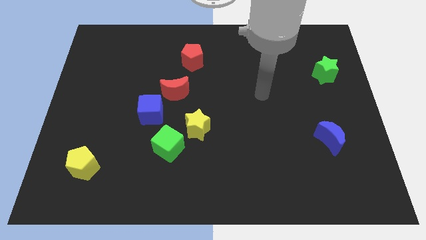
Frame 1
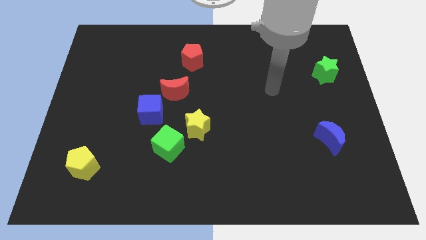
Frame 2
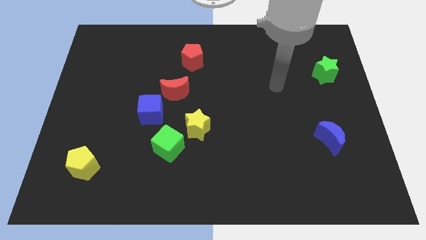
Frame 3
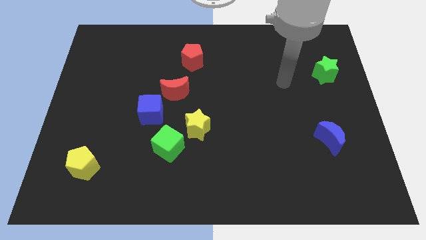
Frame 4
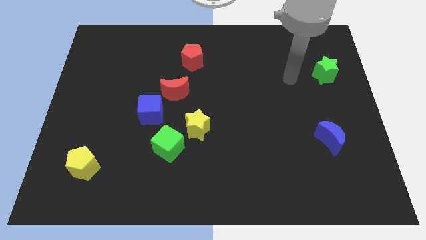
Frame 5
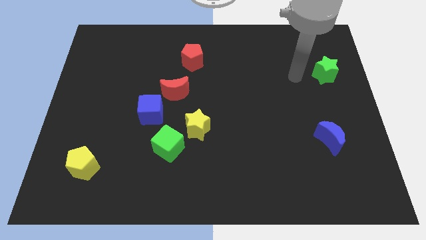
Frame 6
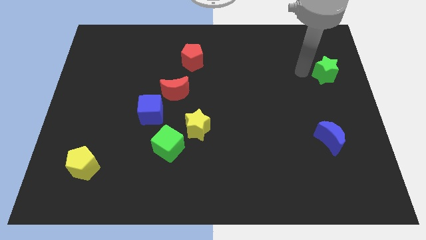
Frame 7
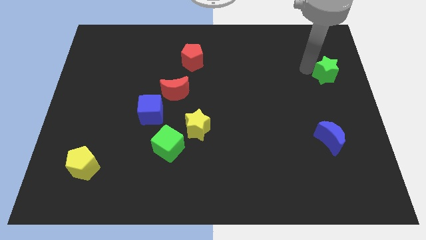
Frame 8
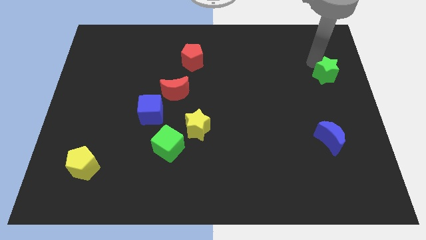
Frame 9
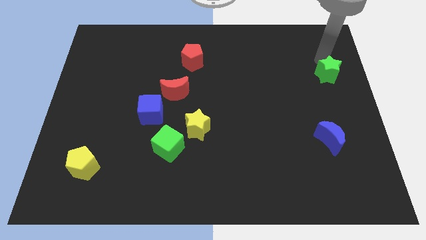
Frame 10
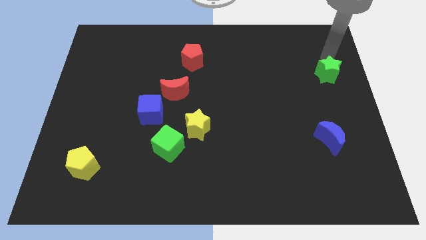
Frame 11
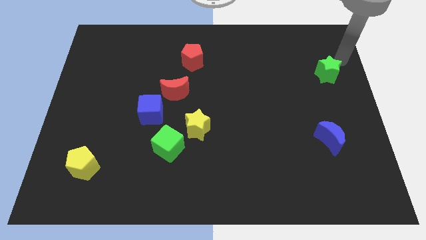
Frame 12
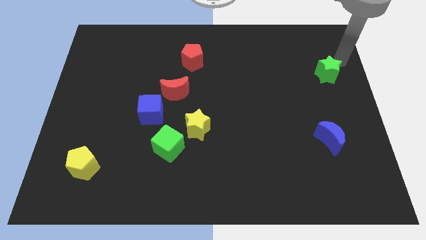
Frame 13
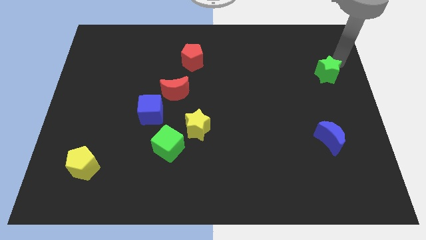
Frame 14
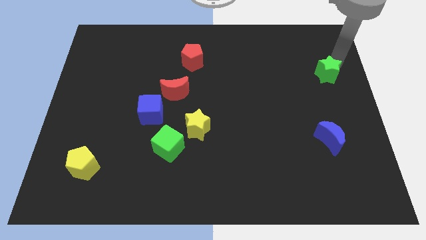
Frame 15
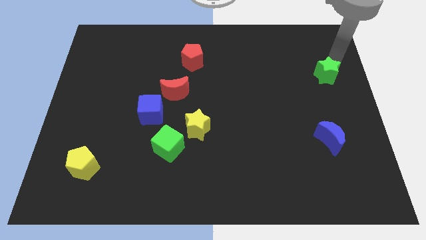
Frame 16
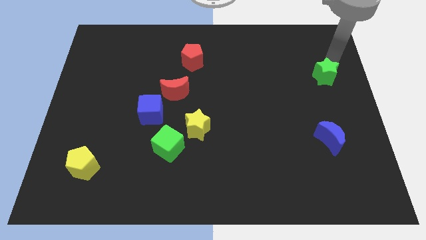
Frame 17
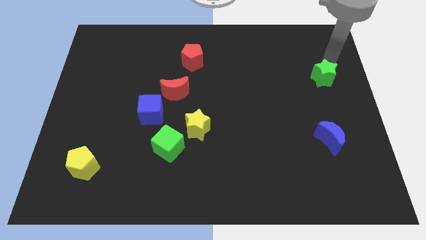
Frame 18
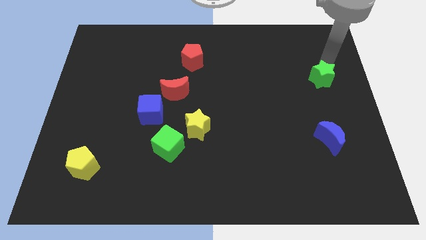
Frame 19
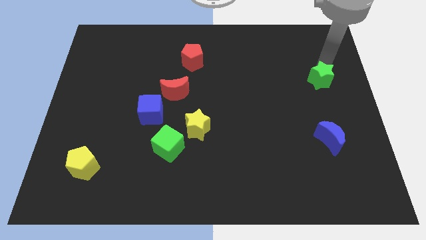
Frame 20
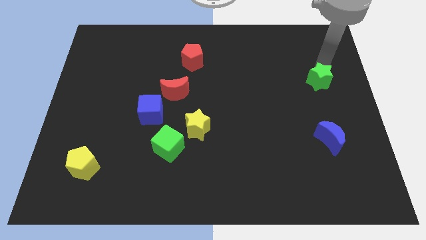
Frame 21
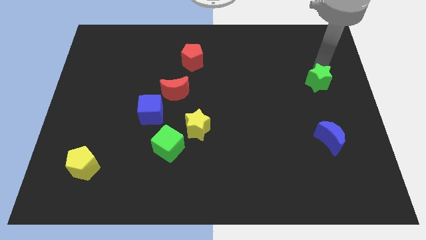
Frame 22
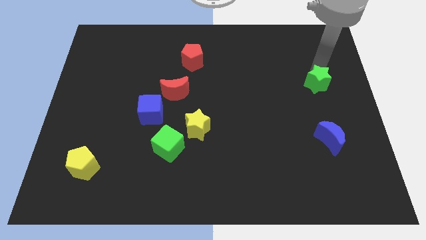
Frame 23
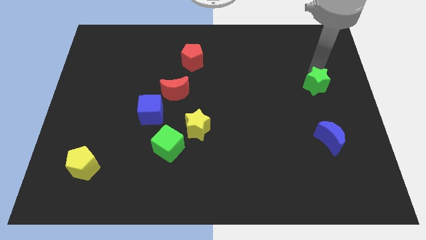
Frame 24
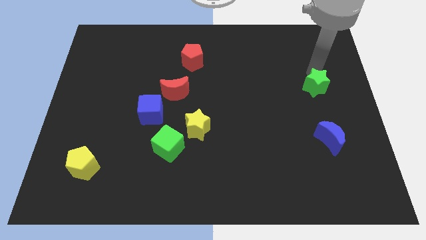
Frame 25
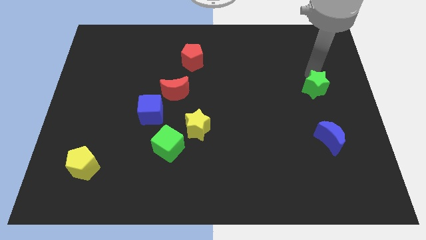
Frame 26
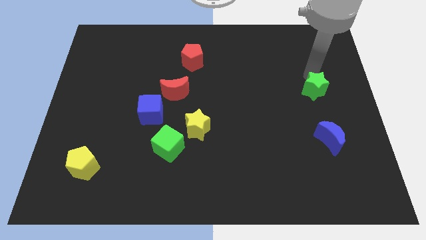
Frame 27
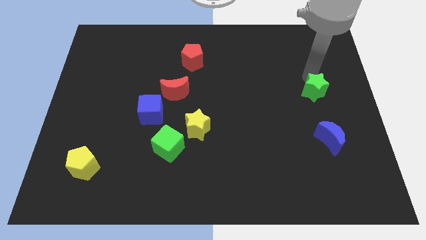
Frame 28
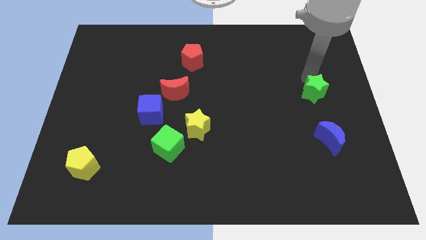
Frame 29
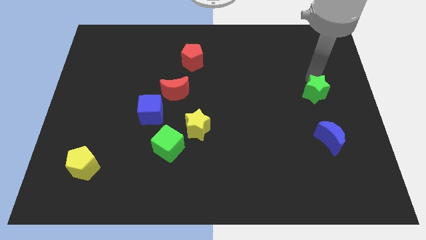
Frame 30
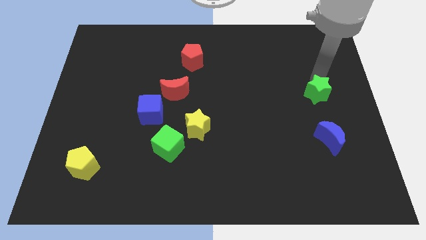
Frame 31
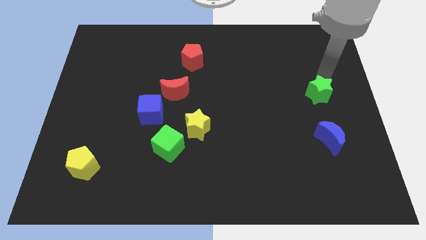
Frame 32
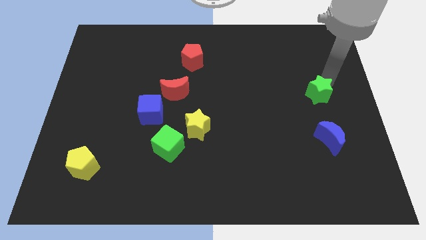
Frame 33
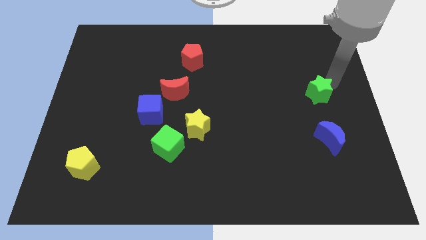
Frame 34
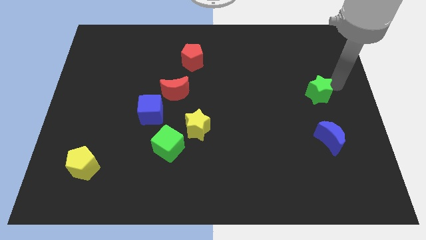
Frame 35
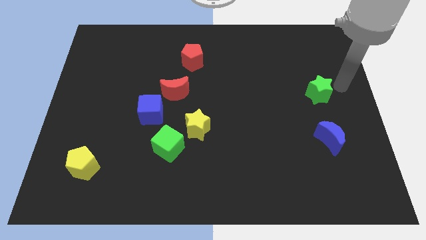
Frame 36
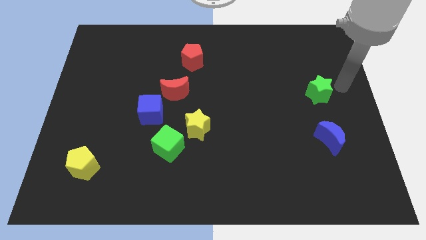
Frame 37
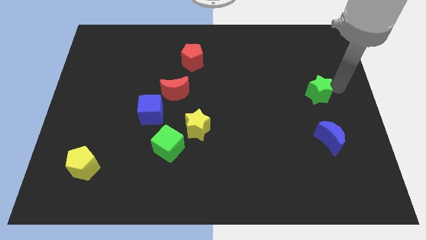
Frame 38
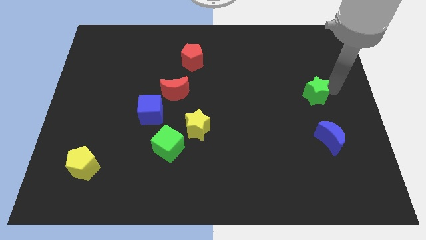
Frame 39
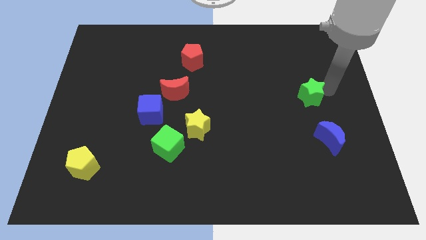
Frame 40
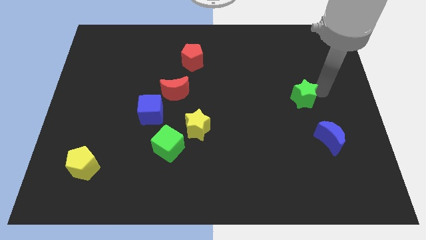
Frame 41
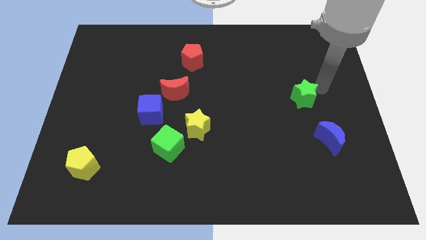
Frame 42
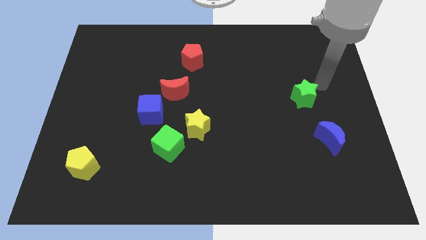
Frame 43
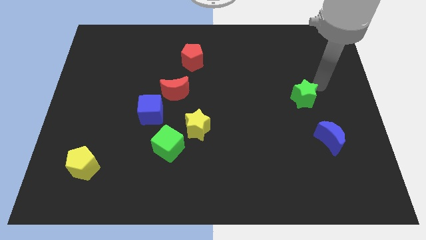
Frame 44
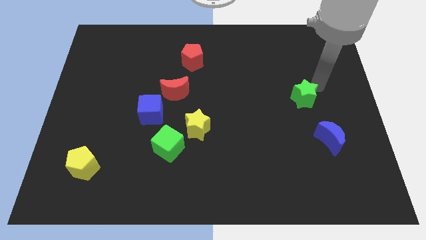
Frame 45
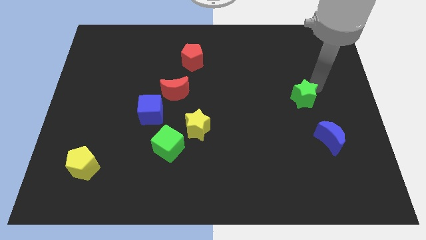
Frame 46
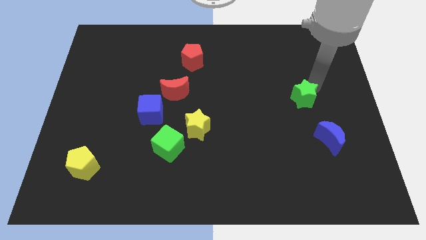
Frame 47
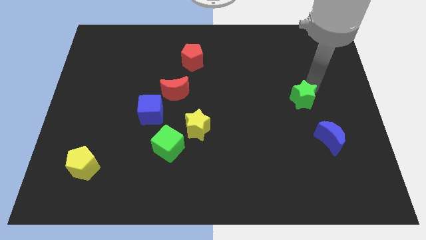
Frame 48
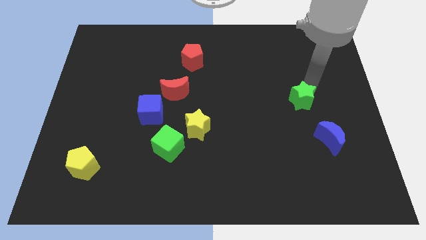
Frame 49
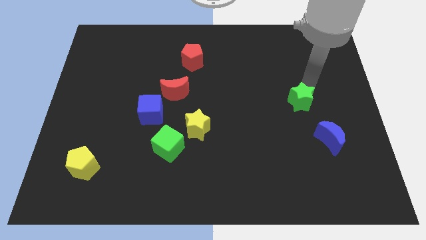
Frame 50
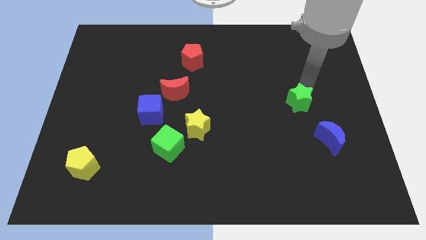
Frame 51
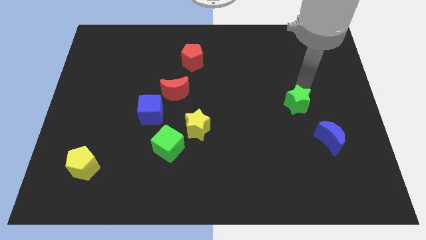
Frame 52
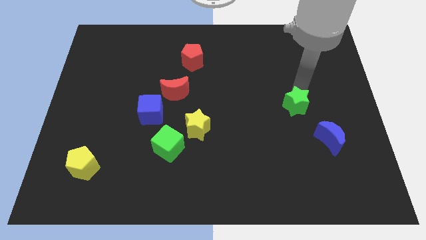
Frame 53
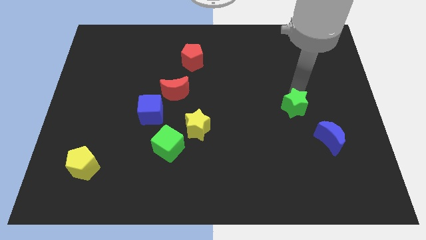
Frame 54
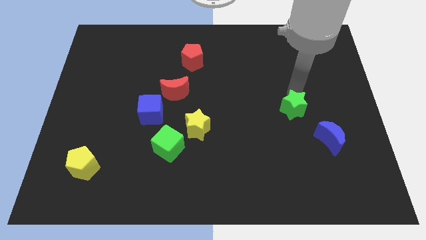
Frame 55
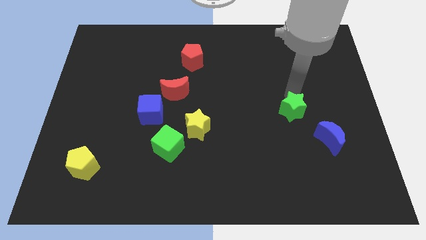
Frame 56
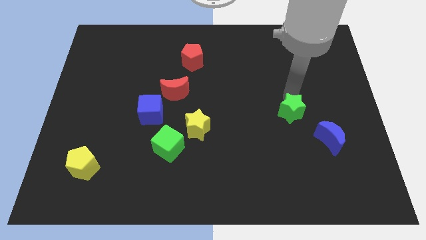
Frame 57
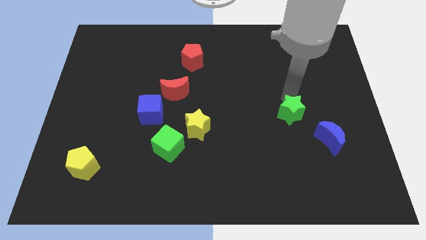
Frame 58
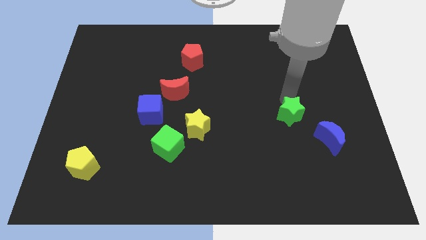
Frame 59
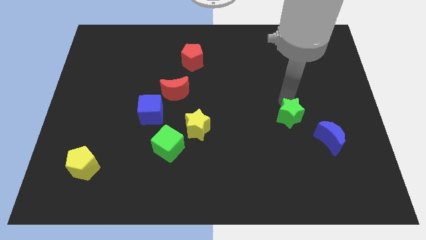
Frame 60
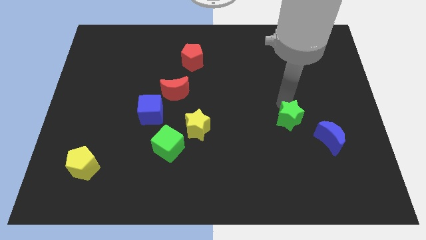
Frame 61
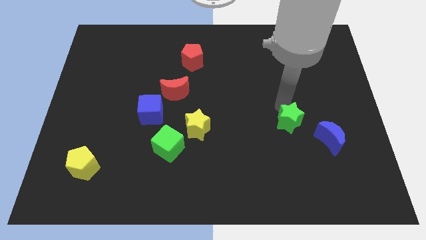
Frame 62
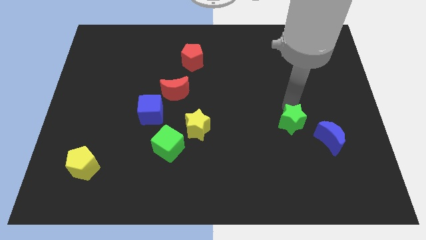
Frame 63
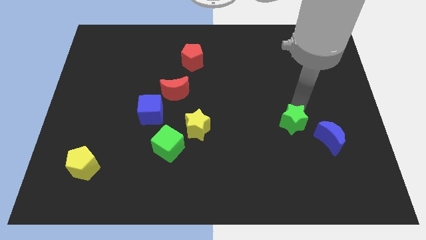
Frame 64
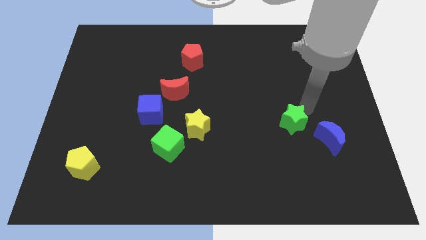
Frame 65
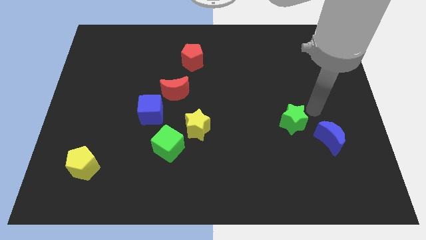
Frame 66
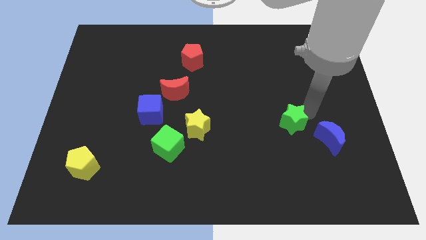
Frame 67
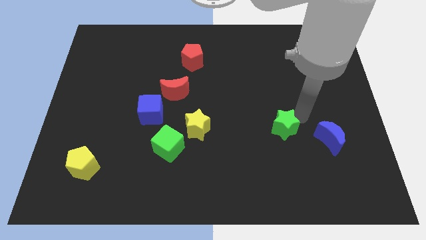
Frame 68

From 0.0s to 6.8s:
move the green star down and to the left diagonally

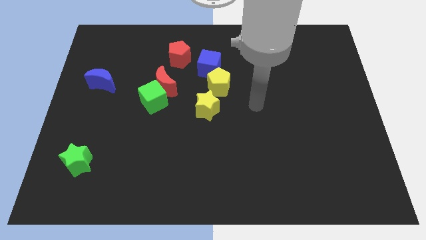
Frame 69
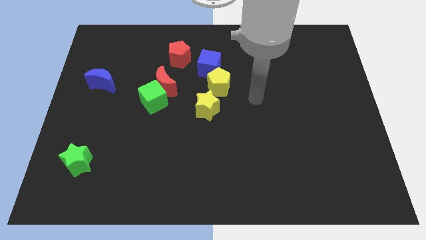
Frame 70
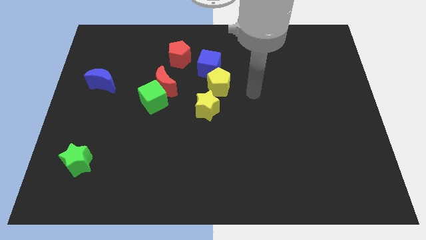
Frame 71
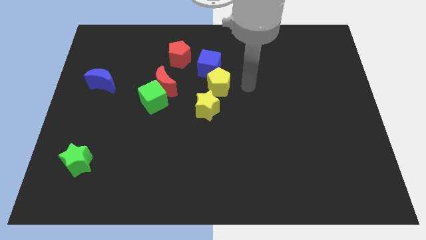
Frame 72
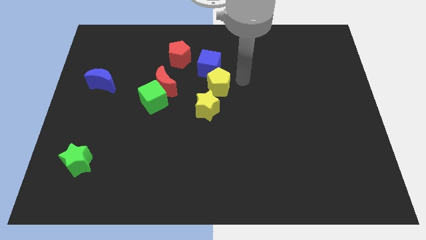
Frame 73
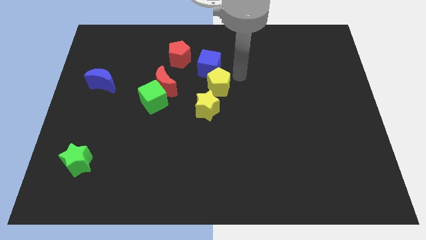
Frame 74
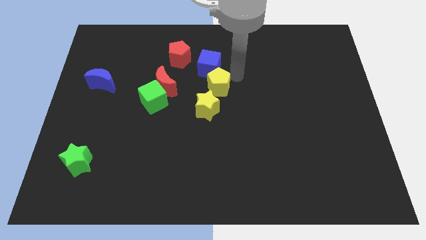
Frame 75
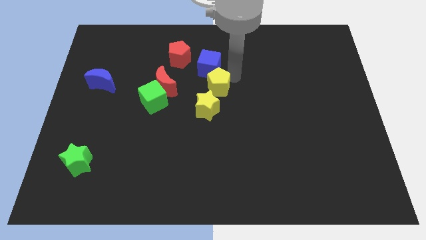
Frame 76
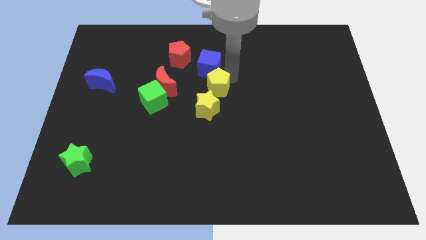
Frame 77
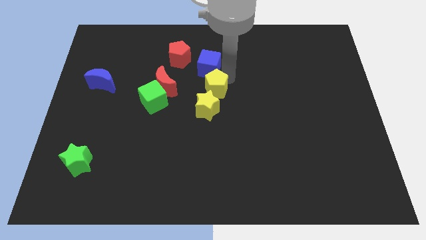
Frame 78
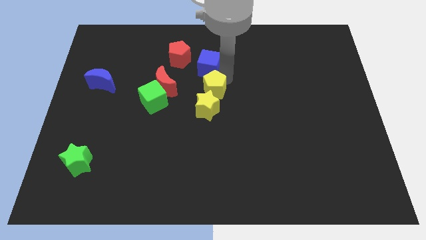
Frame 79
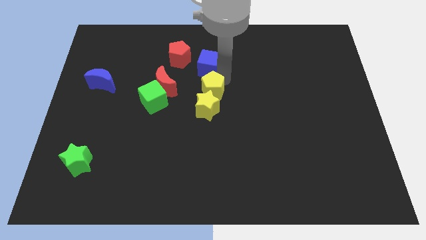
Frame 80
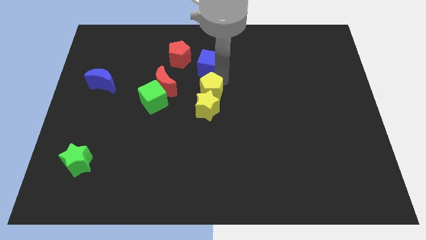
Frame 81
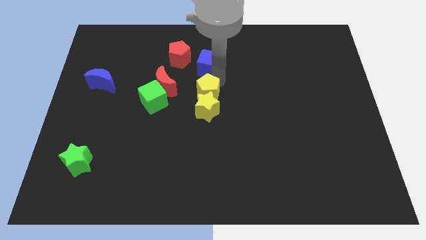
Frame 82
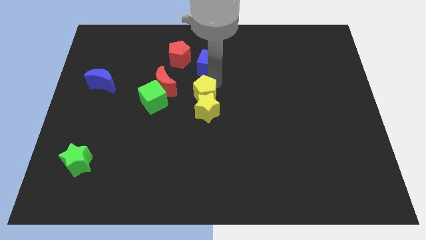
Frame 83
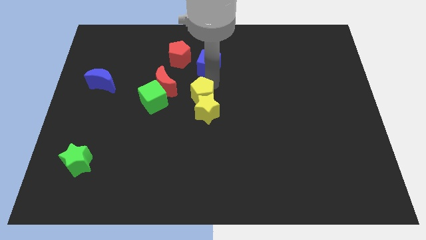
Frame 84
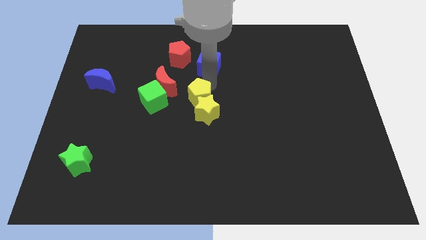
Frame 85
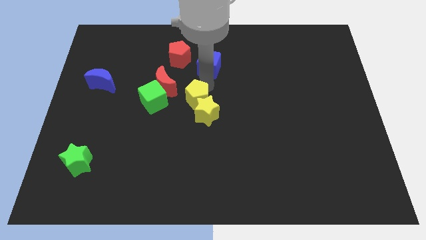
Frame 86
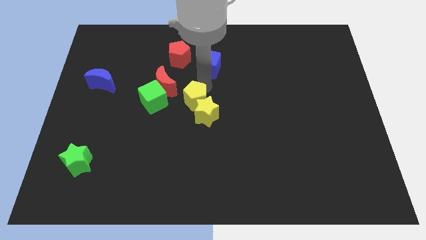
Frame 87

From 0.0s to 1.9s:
move the yellow pentagon downwards and left diagonally somewhat
